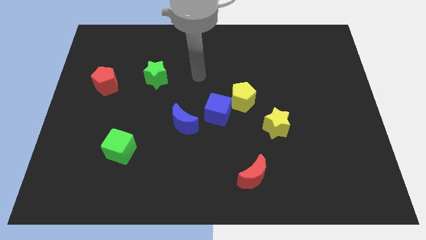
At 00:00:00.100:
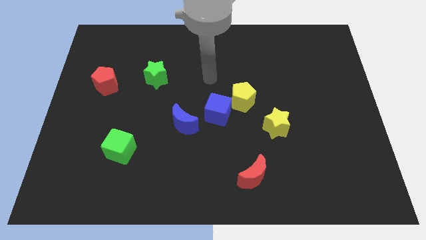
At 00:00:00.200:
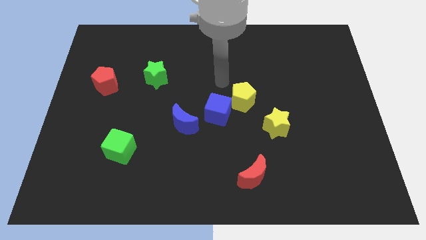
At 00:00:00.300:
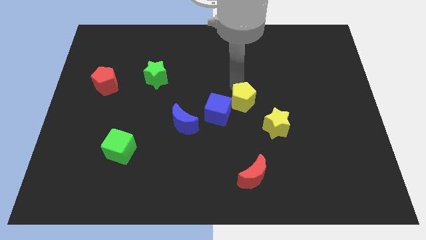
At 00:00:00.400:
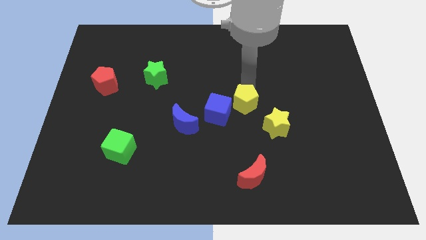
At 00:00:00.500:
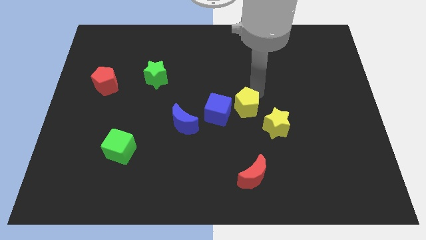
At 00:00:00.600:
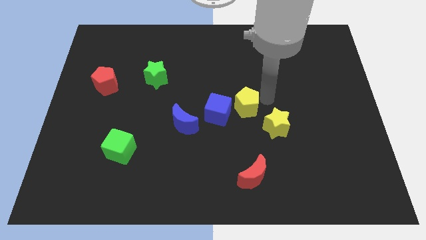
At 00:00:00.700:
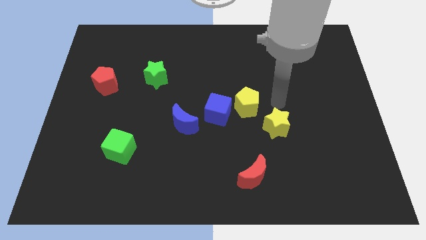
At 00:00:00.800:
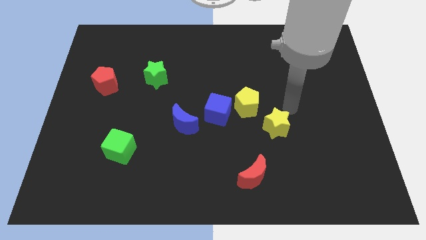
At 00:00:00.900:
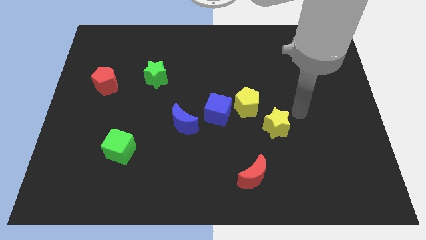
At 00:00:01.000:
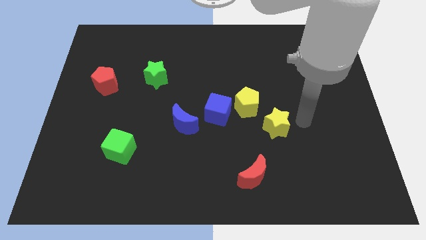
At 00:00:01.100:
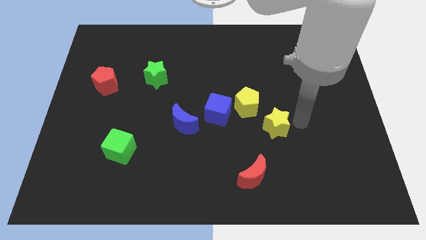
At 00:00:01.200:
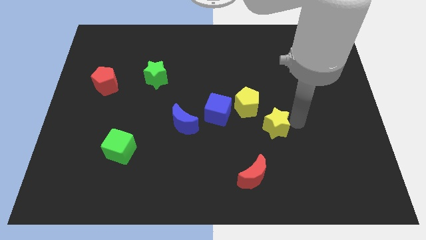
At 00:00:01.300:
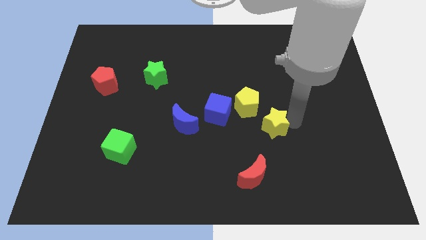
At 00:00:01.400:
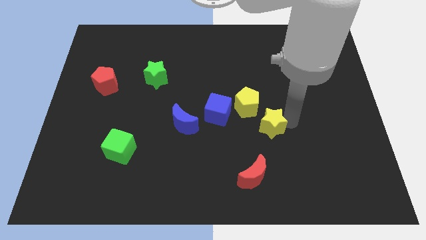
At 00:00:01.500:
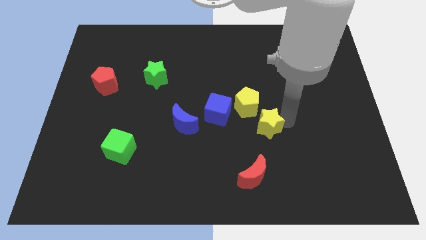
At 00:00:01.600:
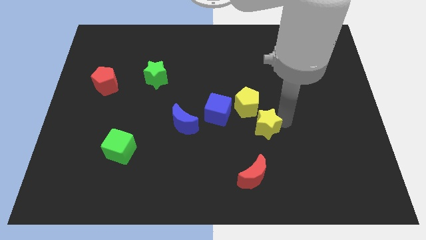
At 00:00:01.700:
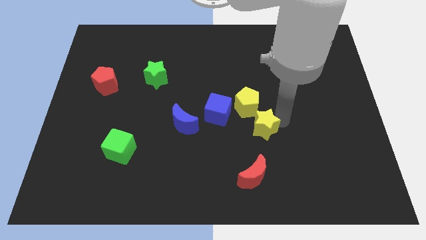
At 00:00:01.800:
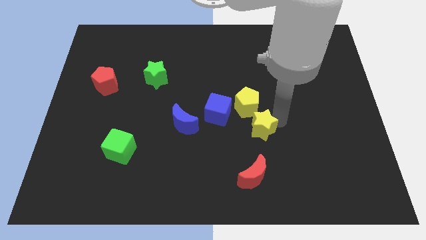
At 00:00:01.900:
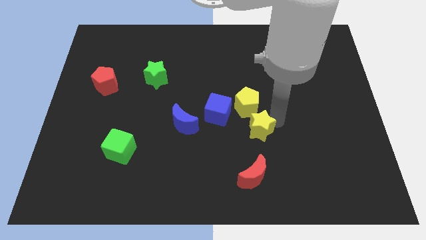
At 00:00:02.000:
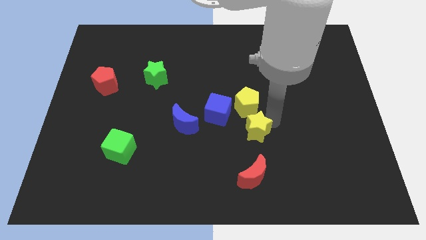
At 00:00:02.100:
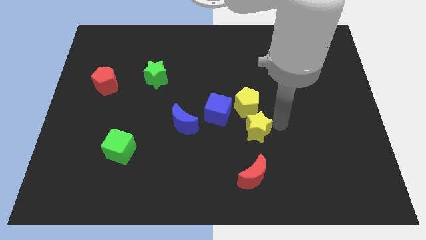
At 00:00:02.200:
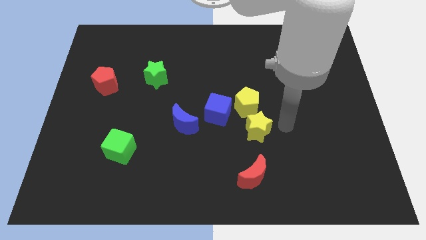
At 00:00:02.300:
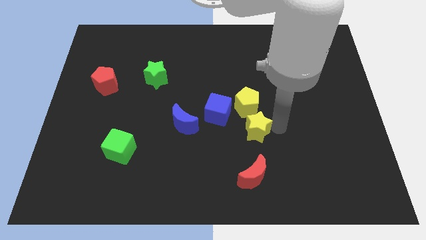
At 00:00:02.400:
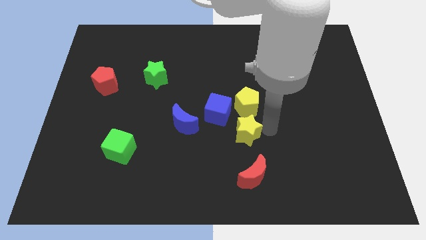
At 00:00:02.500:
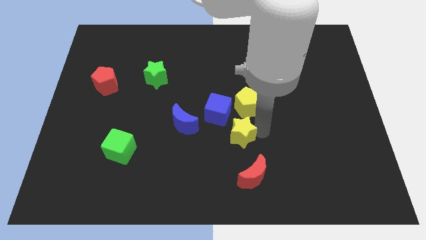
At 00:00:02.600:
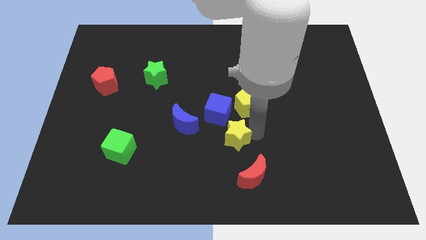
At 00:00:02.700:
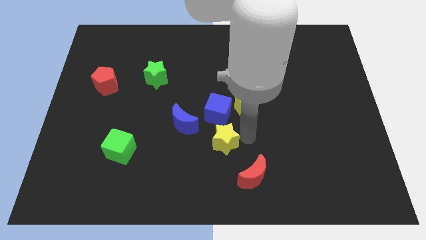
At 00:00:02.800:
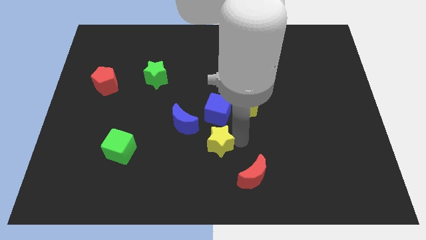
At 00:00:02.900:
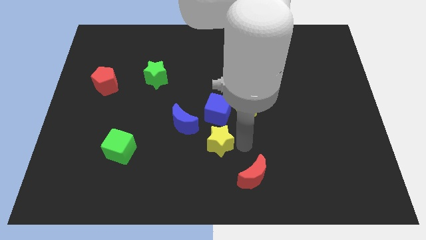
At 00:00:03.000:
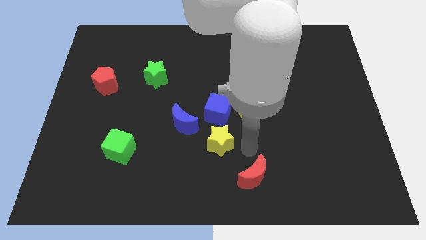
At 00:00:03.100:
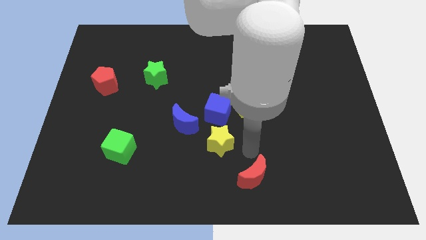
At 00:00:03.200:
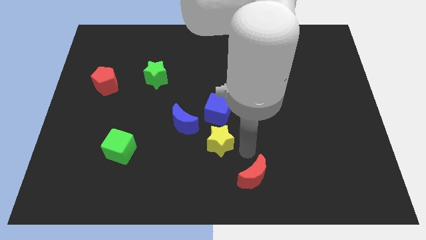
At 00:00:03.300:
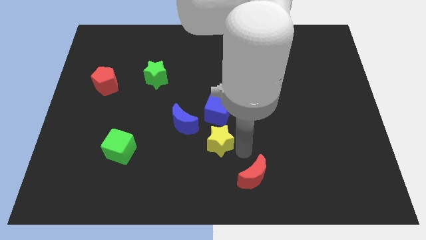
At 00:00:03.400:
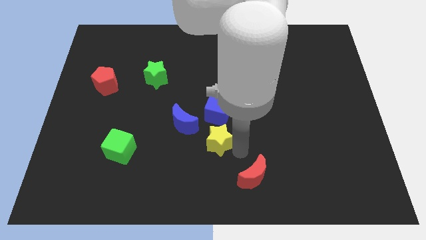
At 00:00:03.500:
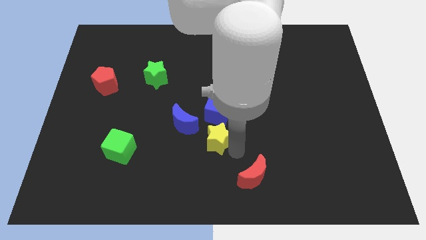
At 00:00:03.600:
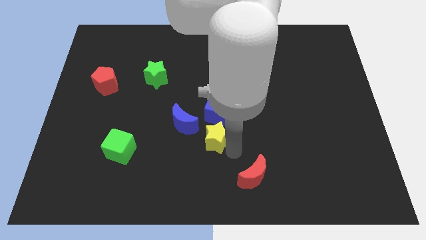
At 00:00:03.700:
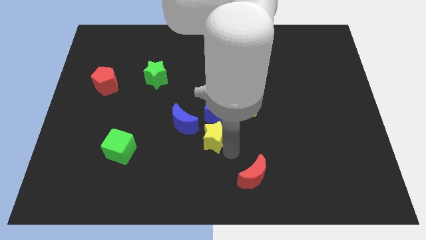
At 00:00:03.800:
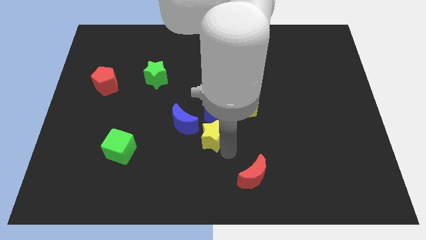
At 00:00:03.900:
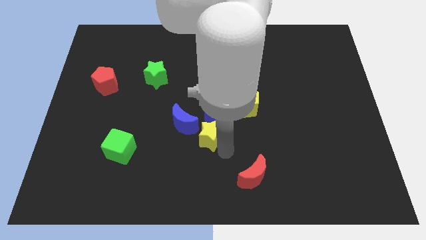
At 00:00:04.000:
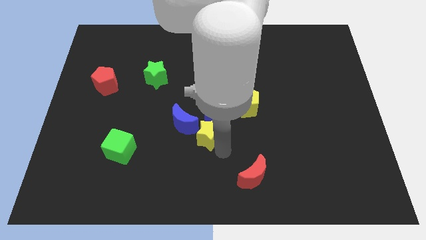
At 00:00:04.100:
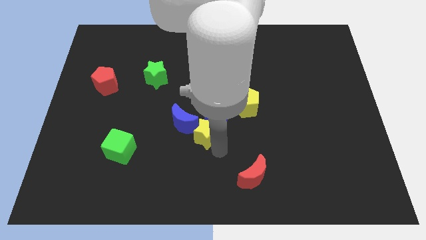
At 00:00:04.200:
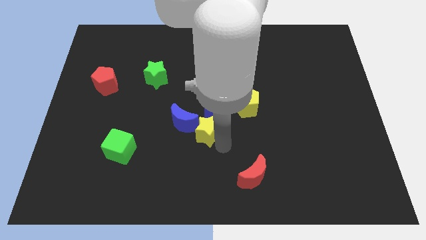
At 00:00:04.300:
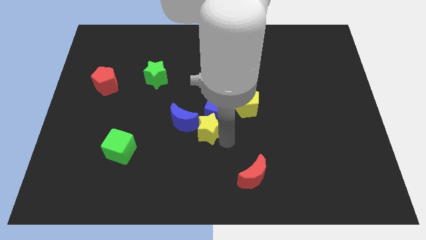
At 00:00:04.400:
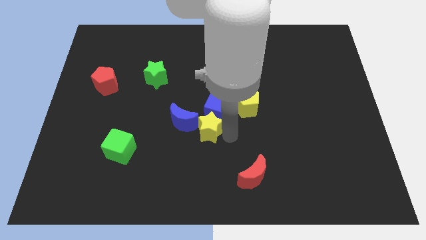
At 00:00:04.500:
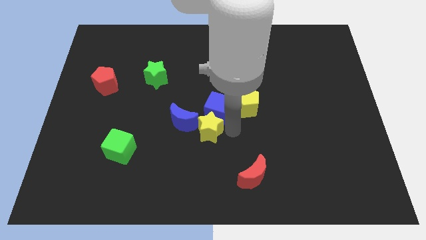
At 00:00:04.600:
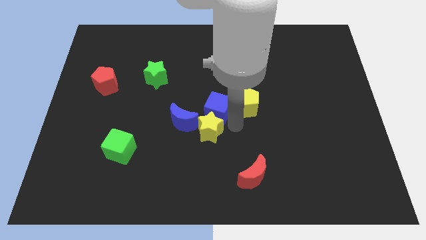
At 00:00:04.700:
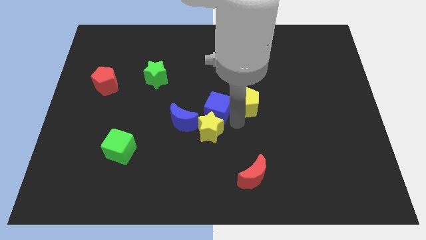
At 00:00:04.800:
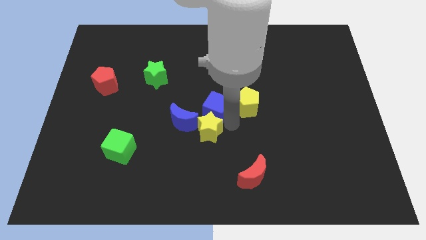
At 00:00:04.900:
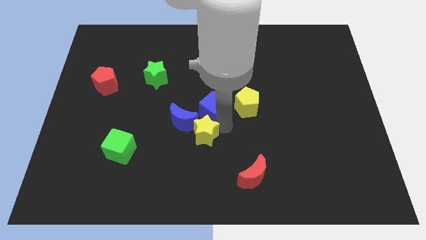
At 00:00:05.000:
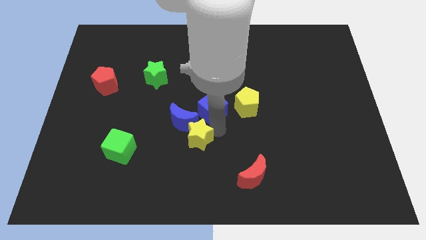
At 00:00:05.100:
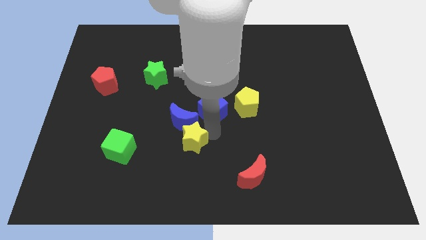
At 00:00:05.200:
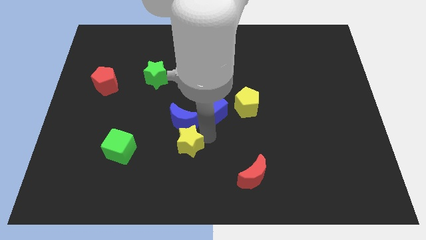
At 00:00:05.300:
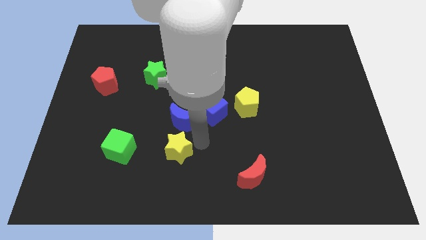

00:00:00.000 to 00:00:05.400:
move the yellow star left

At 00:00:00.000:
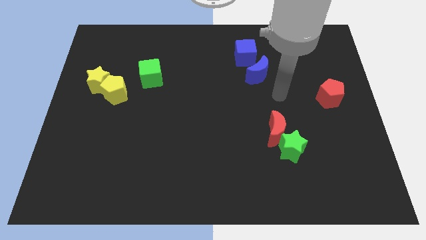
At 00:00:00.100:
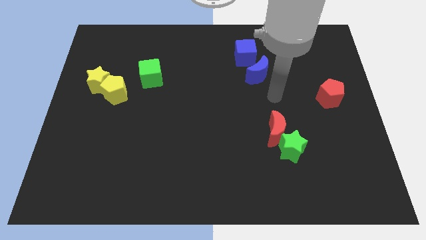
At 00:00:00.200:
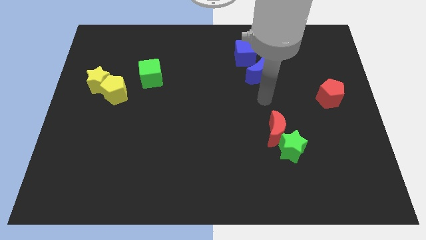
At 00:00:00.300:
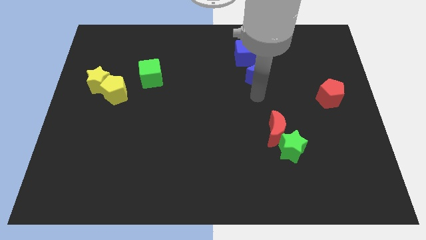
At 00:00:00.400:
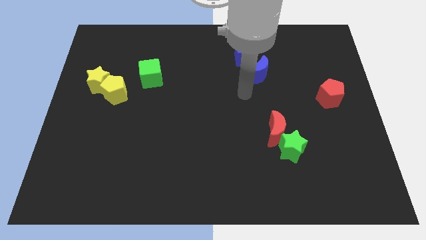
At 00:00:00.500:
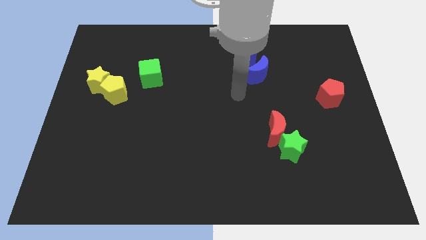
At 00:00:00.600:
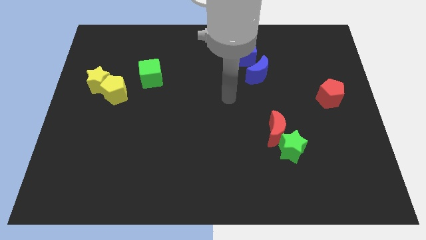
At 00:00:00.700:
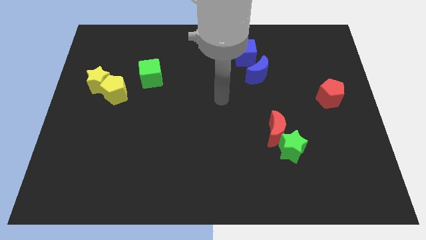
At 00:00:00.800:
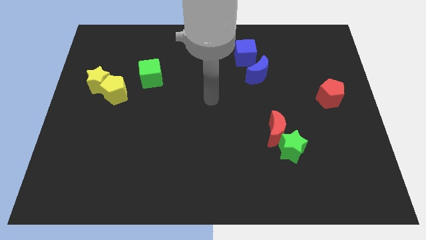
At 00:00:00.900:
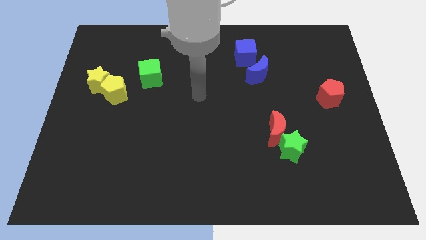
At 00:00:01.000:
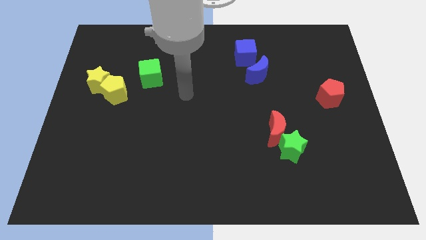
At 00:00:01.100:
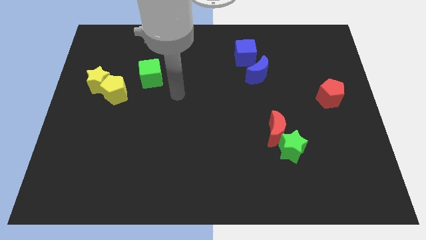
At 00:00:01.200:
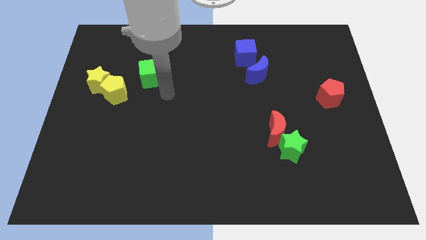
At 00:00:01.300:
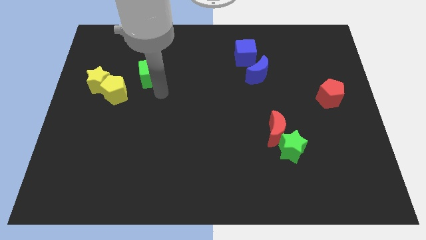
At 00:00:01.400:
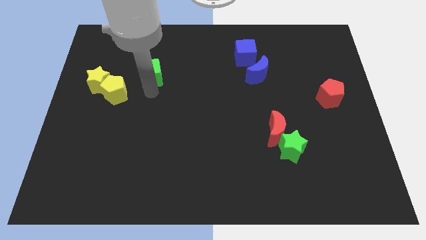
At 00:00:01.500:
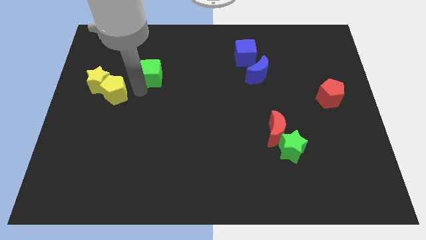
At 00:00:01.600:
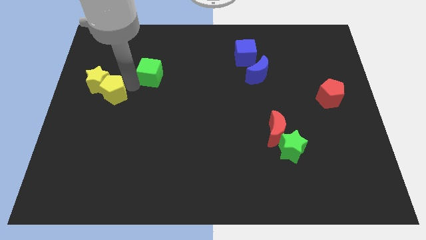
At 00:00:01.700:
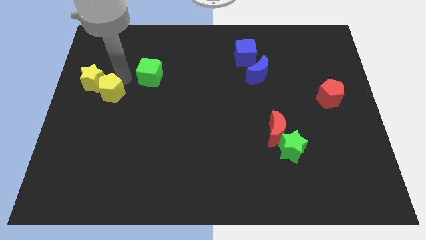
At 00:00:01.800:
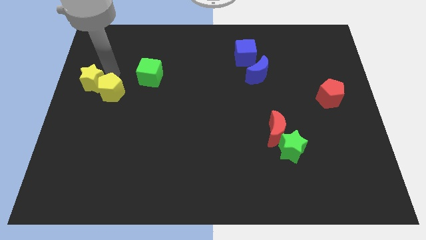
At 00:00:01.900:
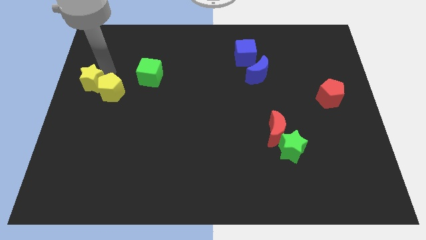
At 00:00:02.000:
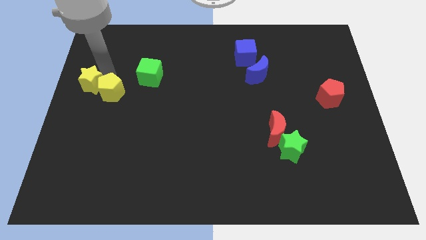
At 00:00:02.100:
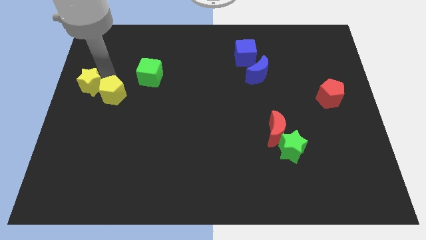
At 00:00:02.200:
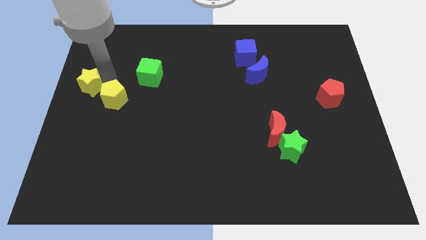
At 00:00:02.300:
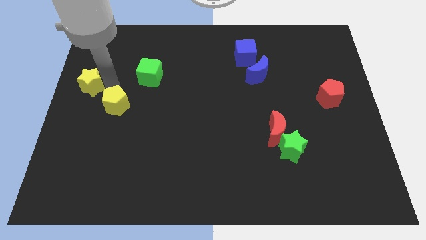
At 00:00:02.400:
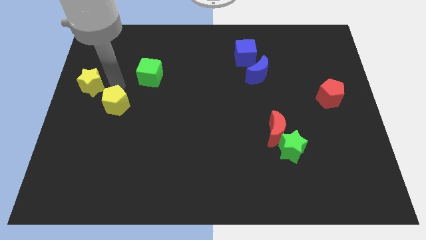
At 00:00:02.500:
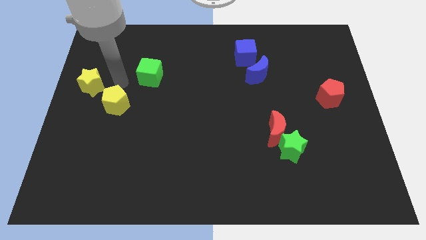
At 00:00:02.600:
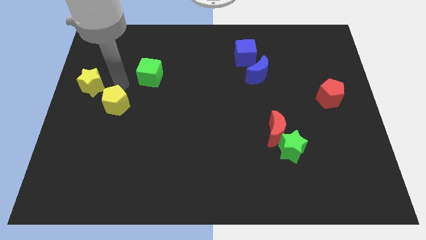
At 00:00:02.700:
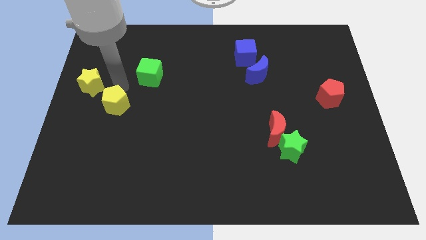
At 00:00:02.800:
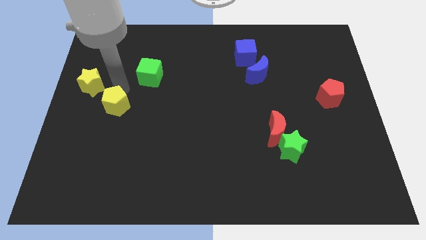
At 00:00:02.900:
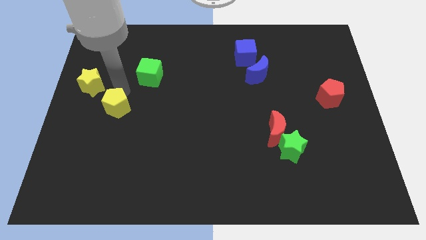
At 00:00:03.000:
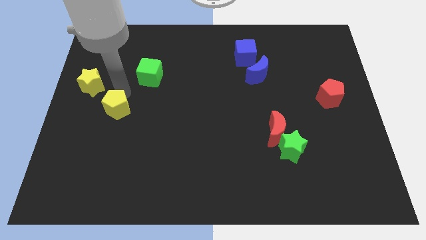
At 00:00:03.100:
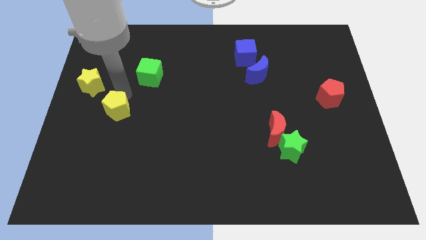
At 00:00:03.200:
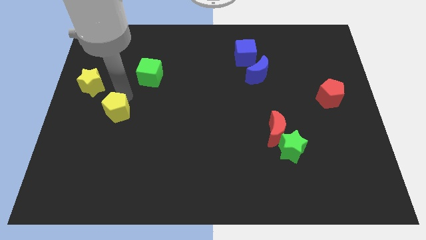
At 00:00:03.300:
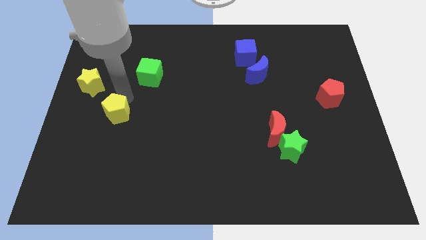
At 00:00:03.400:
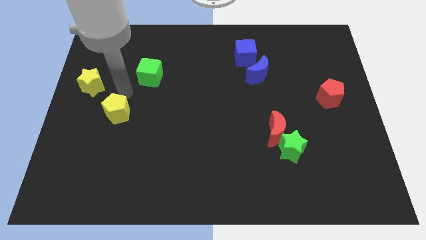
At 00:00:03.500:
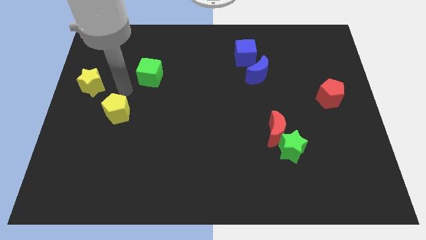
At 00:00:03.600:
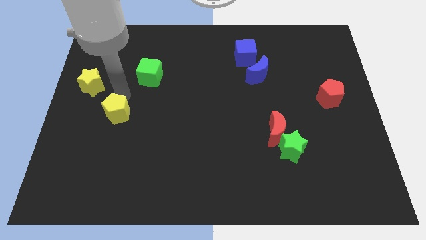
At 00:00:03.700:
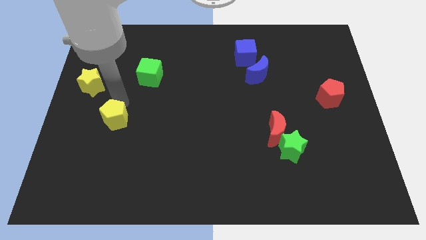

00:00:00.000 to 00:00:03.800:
slide the yellow pentagon downwards somewhat
